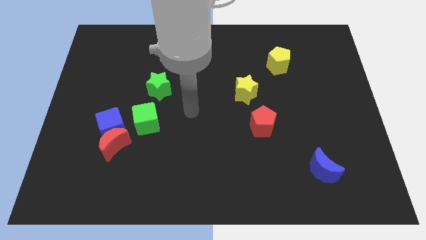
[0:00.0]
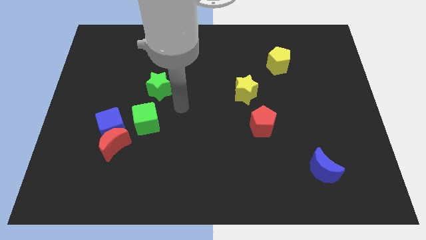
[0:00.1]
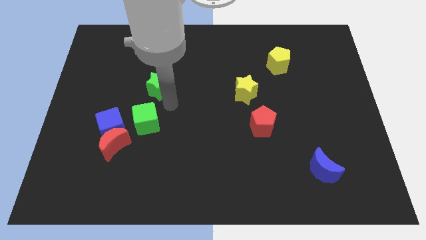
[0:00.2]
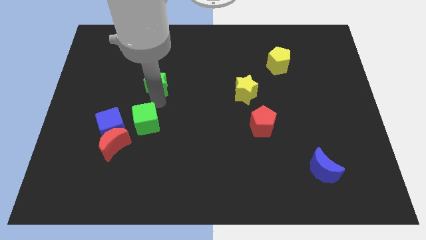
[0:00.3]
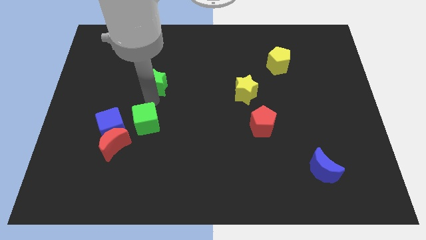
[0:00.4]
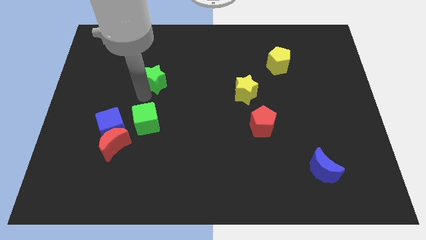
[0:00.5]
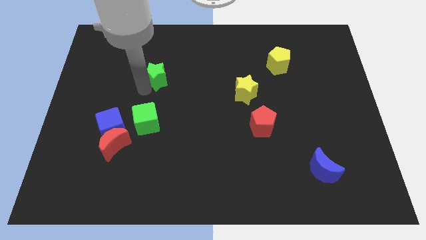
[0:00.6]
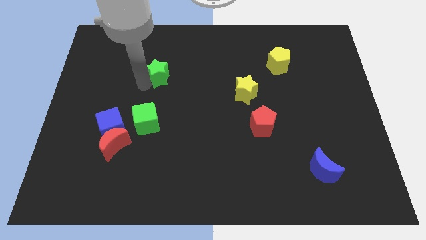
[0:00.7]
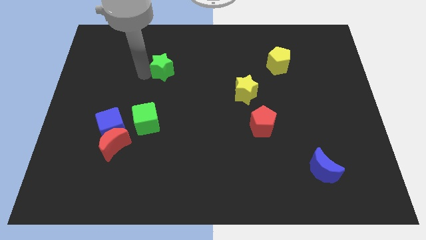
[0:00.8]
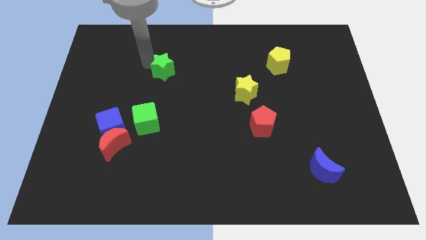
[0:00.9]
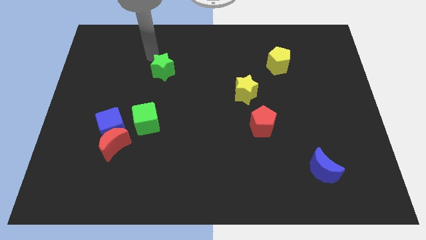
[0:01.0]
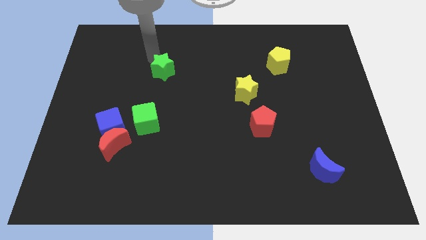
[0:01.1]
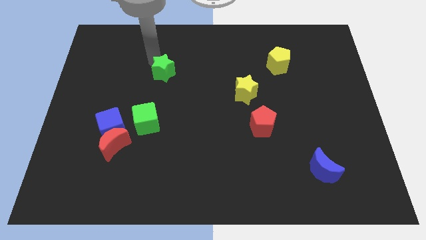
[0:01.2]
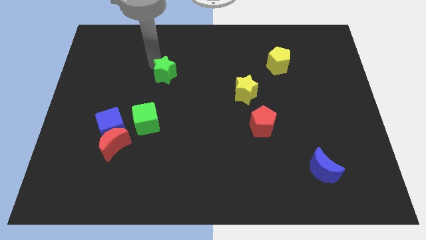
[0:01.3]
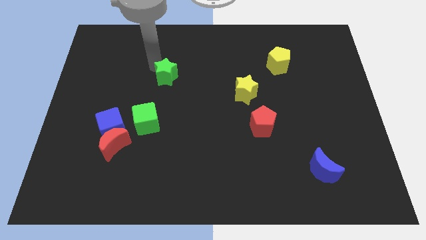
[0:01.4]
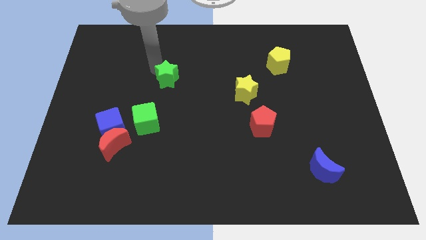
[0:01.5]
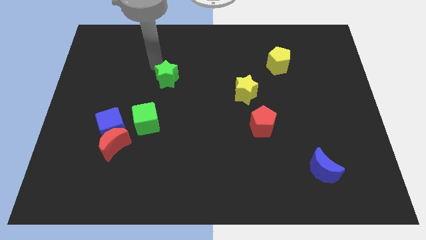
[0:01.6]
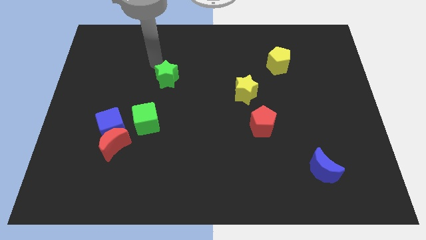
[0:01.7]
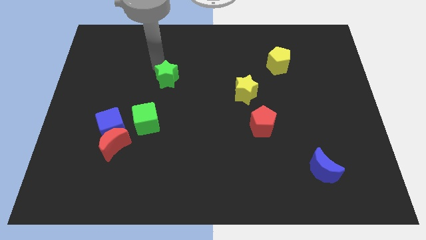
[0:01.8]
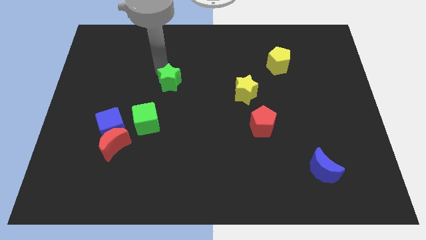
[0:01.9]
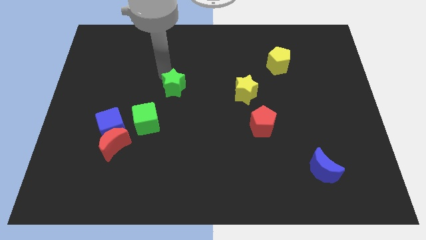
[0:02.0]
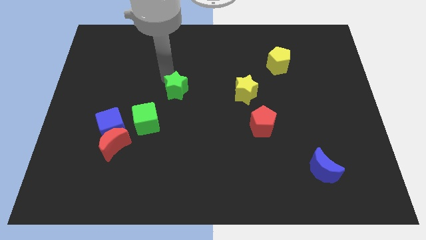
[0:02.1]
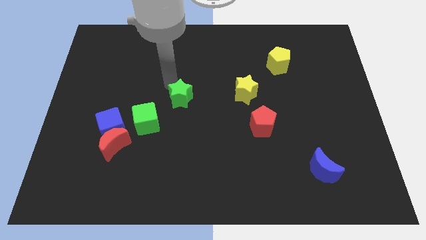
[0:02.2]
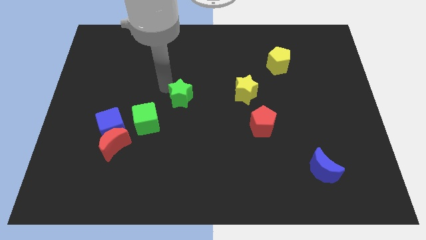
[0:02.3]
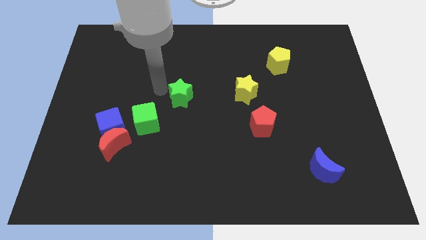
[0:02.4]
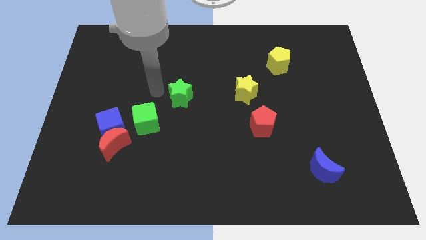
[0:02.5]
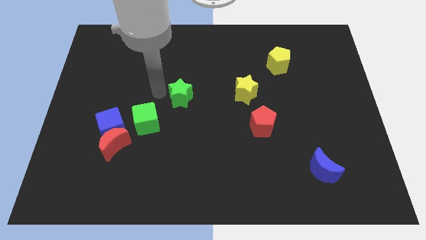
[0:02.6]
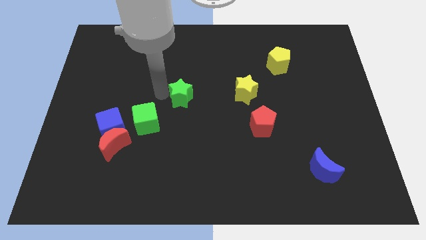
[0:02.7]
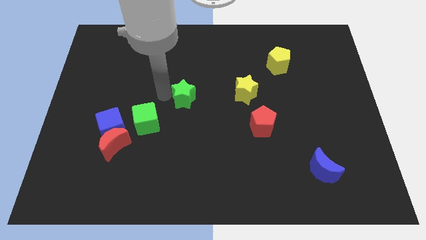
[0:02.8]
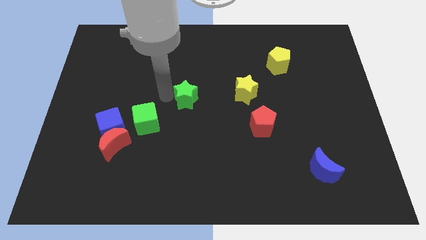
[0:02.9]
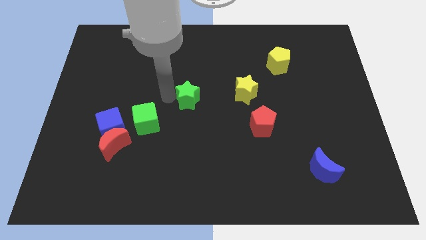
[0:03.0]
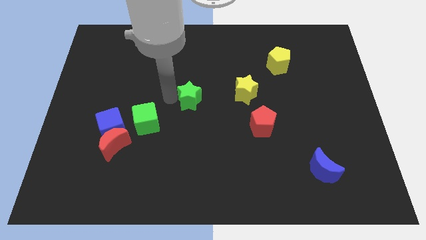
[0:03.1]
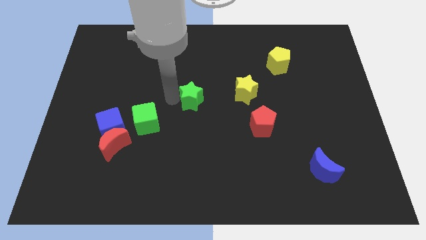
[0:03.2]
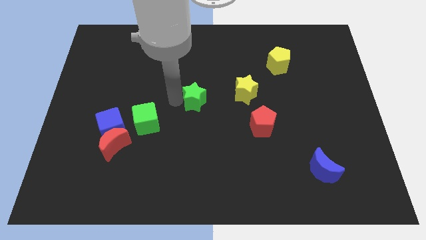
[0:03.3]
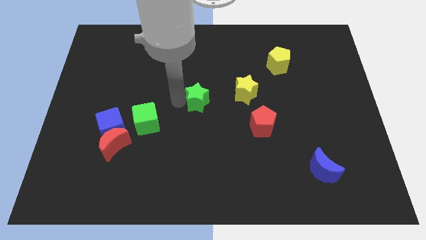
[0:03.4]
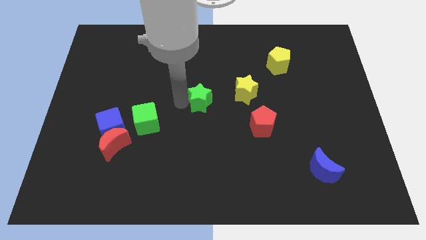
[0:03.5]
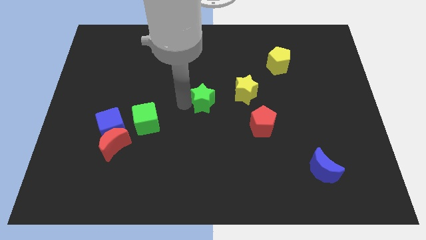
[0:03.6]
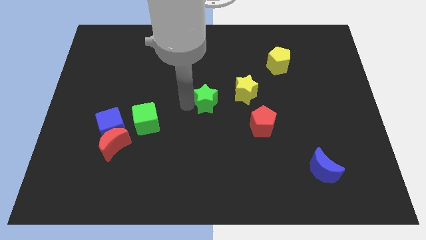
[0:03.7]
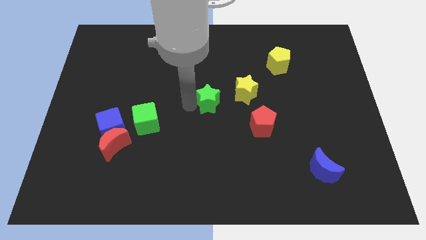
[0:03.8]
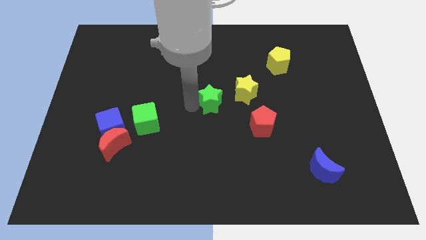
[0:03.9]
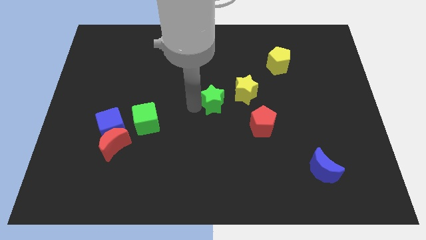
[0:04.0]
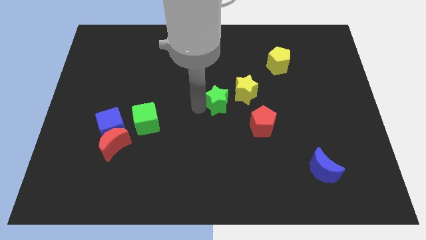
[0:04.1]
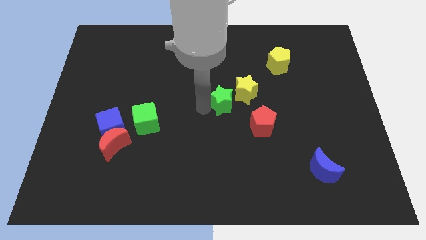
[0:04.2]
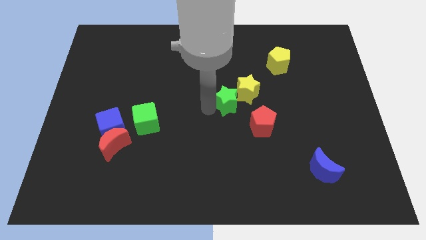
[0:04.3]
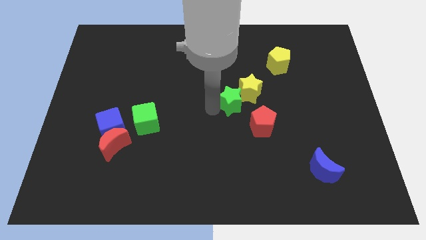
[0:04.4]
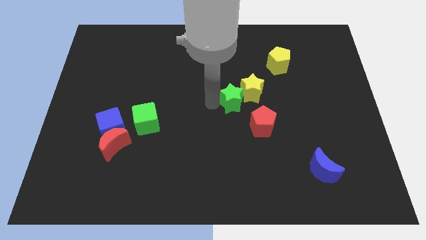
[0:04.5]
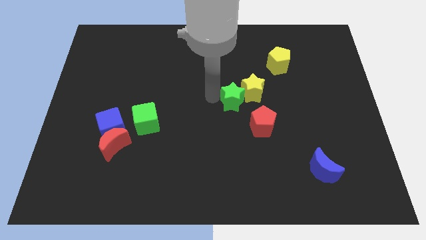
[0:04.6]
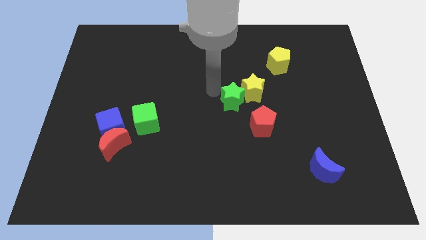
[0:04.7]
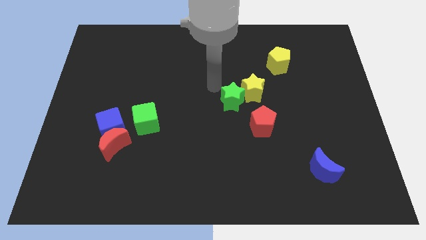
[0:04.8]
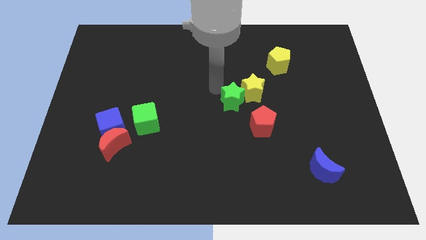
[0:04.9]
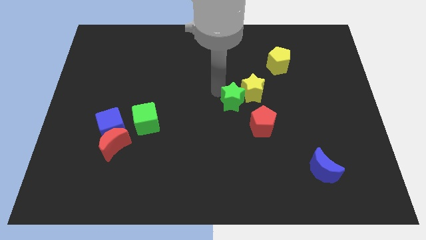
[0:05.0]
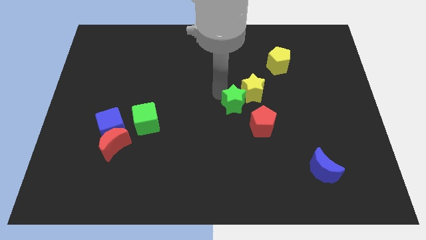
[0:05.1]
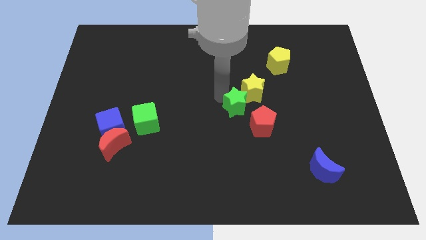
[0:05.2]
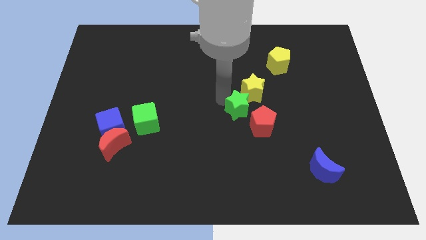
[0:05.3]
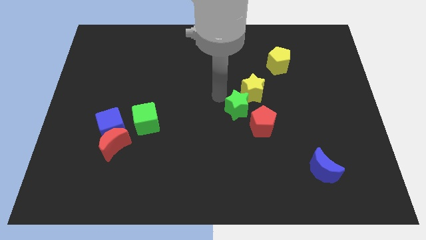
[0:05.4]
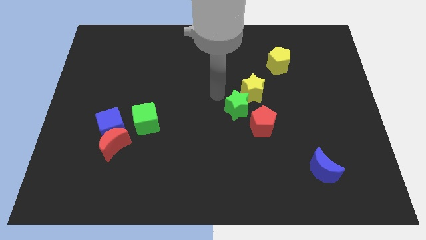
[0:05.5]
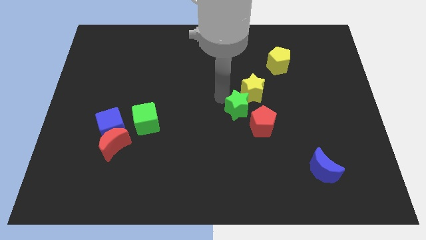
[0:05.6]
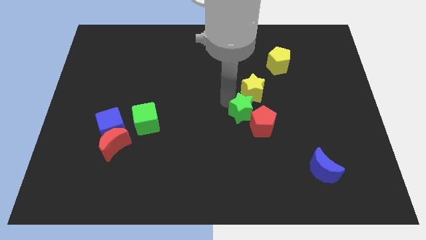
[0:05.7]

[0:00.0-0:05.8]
move the green star next to the red pentagon

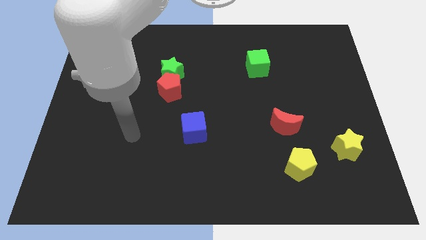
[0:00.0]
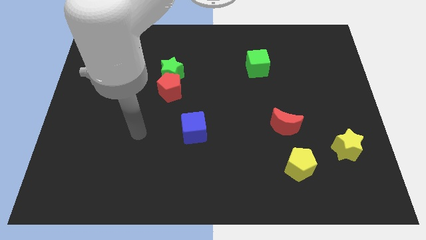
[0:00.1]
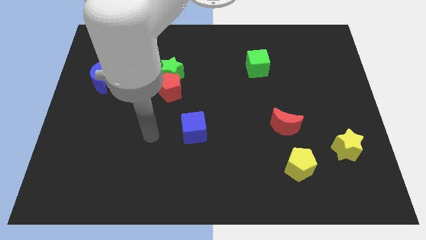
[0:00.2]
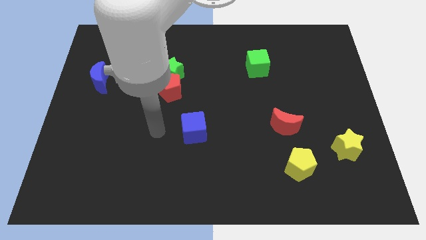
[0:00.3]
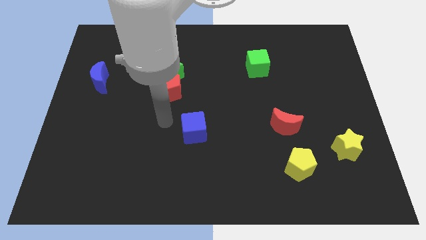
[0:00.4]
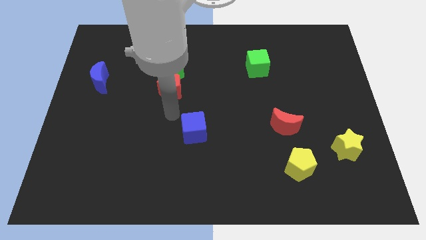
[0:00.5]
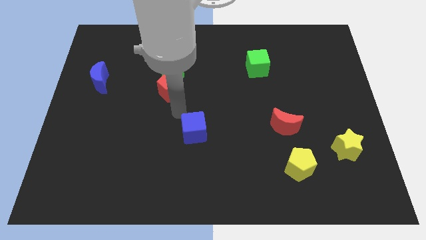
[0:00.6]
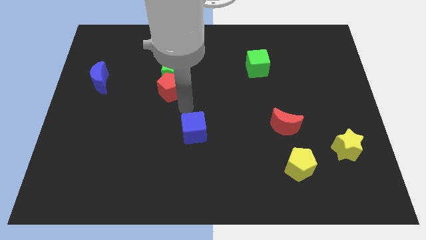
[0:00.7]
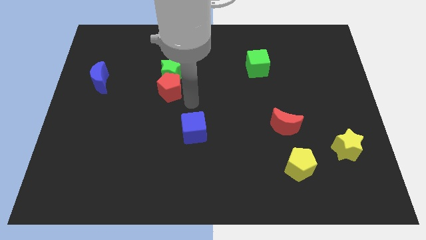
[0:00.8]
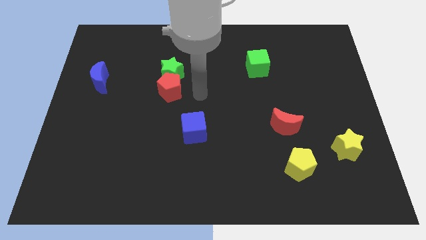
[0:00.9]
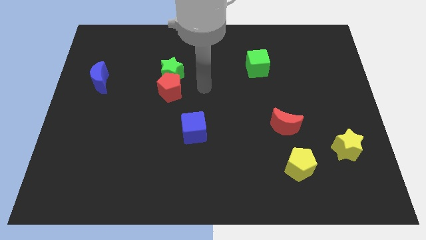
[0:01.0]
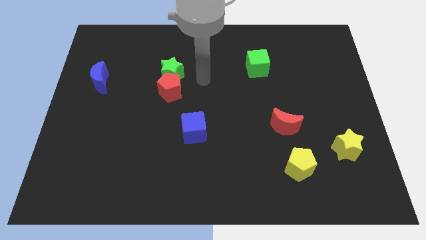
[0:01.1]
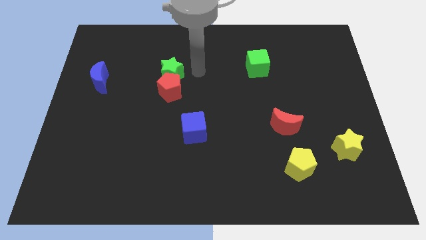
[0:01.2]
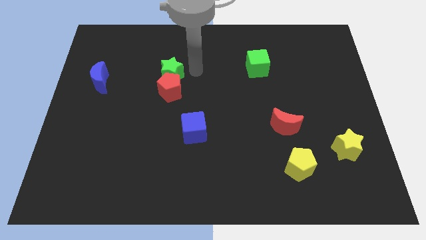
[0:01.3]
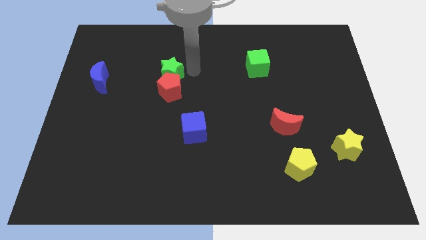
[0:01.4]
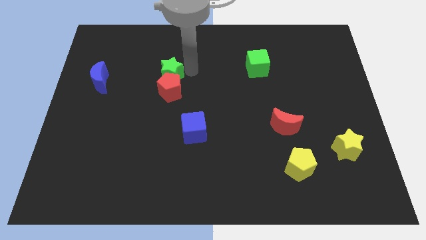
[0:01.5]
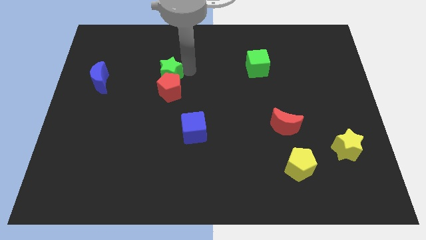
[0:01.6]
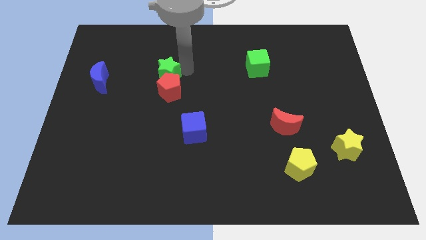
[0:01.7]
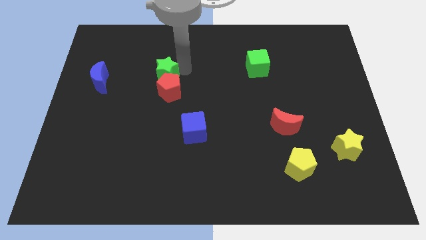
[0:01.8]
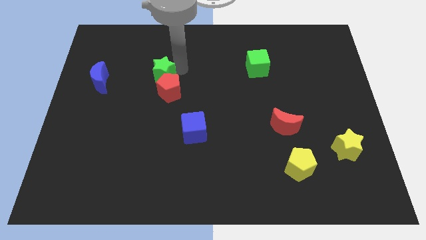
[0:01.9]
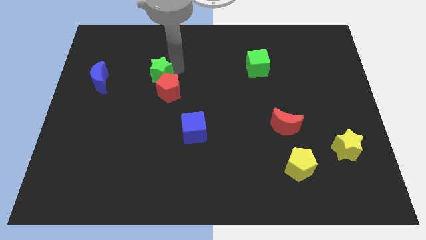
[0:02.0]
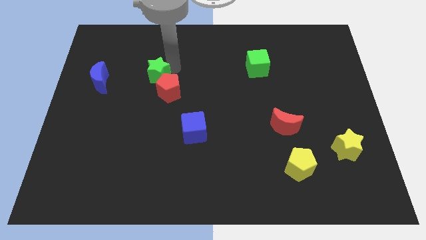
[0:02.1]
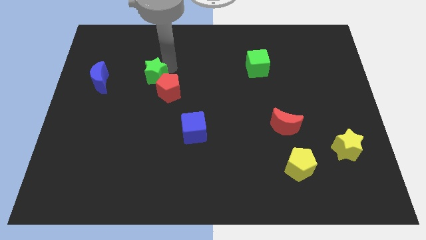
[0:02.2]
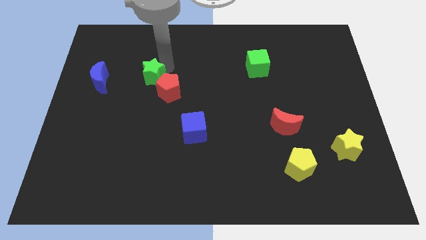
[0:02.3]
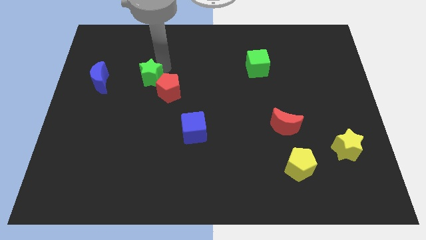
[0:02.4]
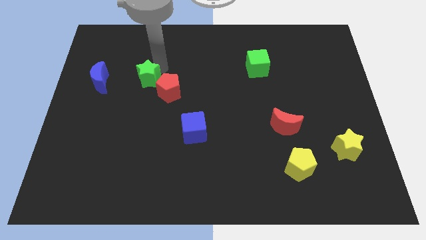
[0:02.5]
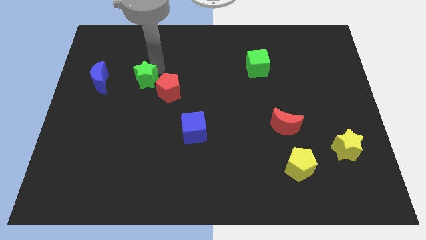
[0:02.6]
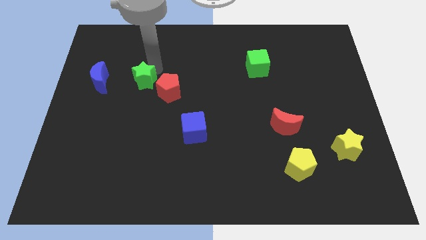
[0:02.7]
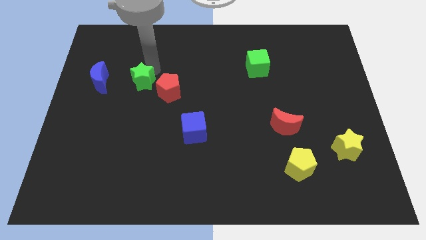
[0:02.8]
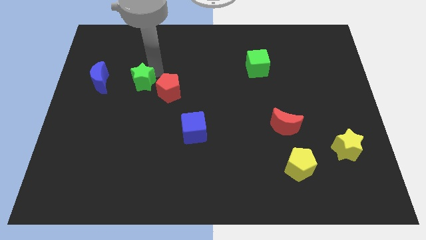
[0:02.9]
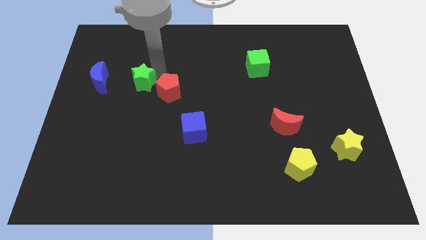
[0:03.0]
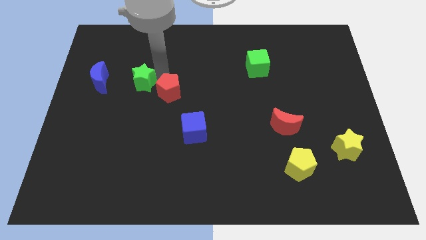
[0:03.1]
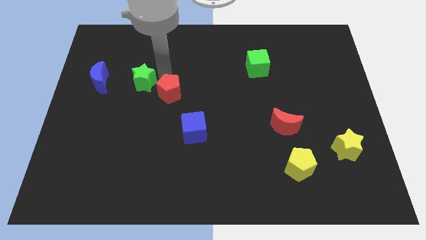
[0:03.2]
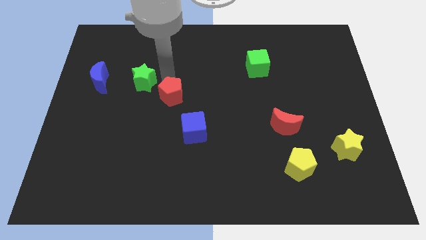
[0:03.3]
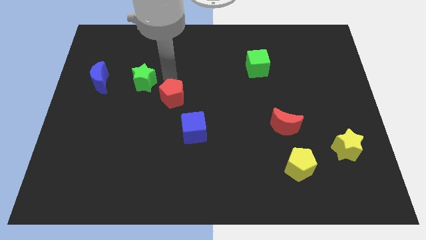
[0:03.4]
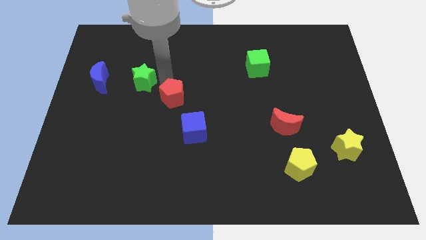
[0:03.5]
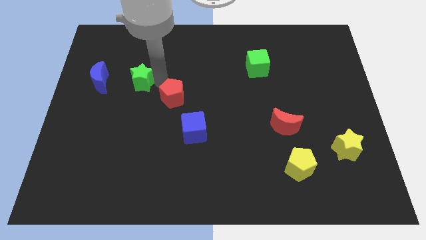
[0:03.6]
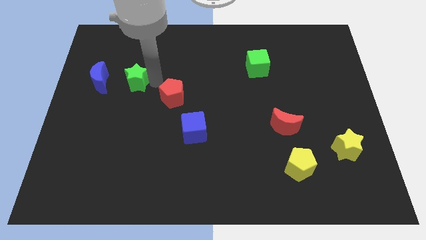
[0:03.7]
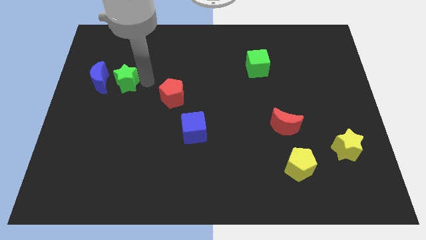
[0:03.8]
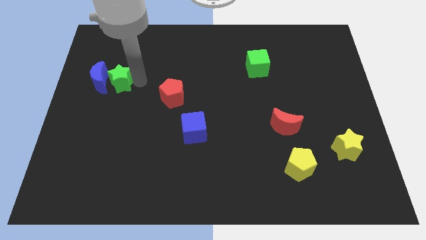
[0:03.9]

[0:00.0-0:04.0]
slide the green star to the blue moon
